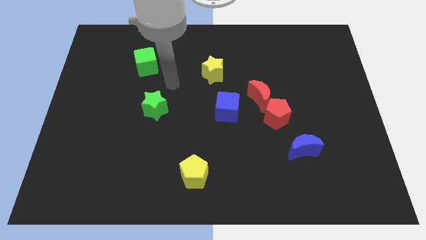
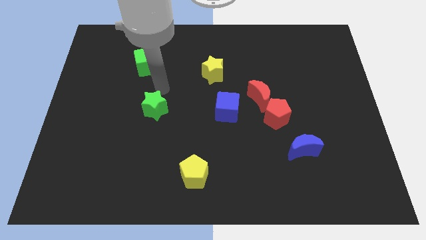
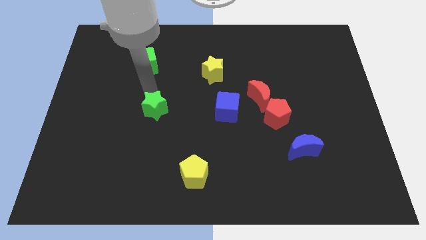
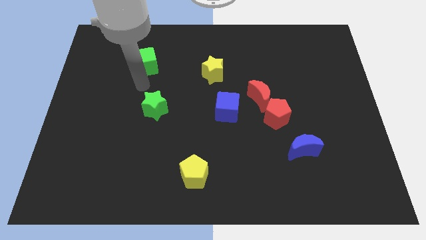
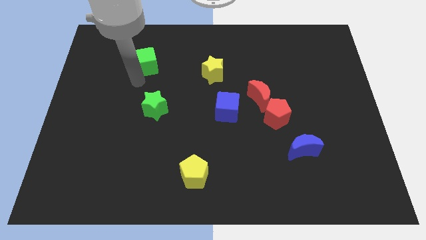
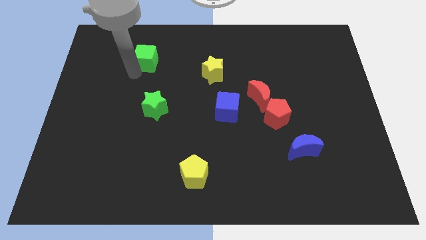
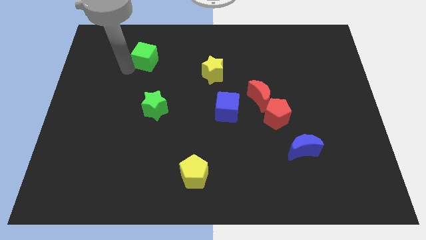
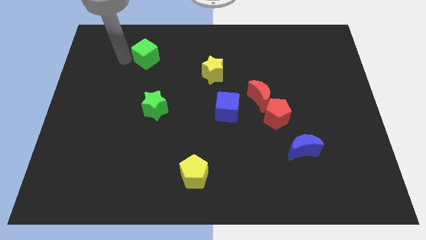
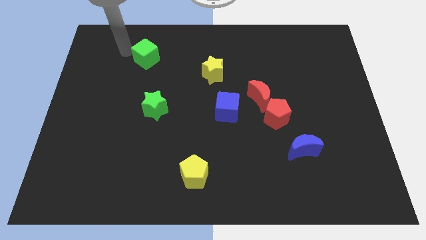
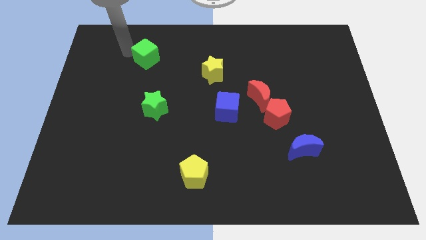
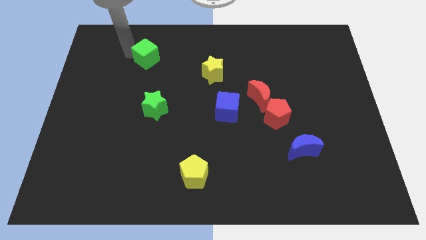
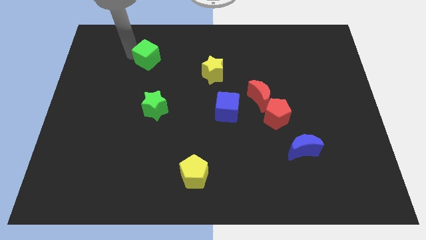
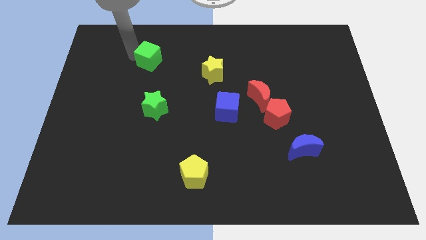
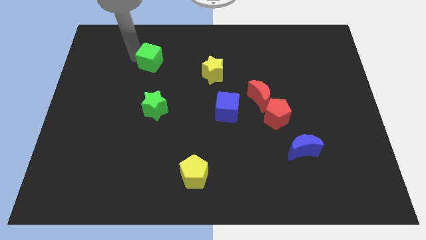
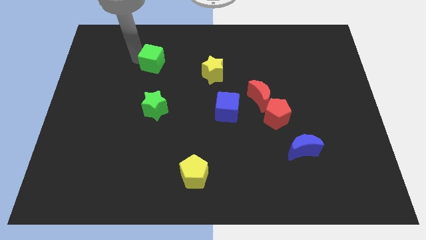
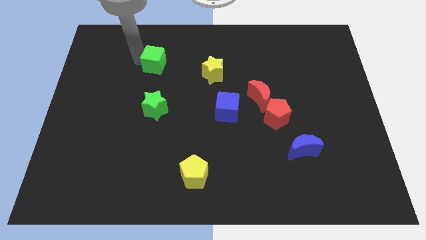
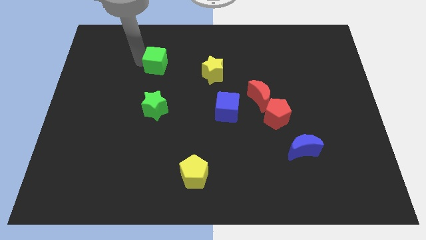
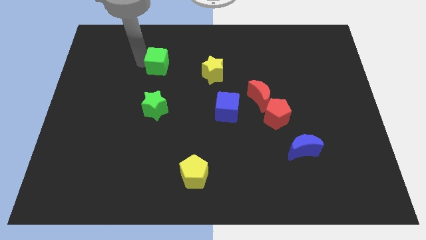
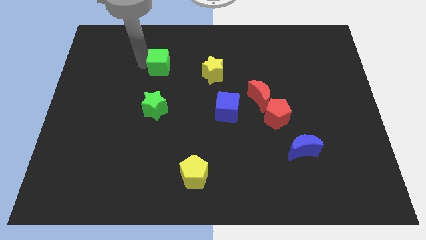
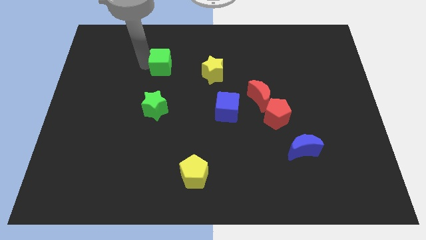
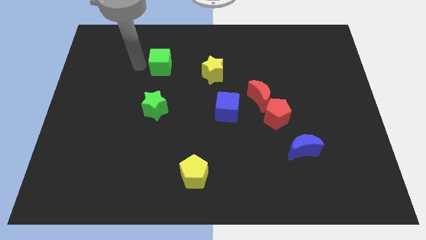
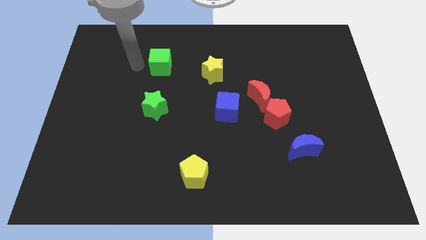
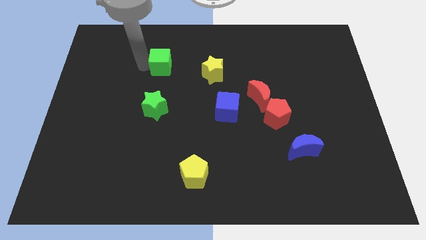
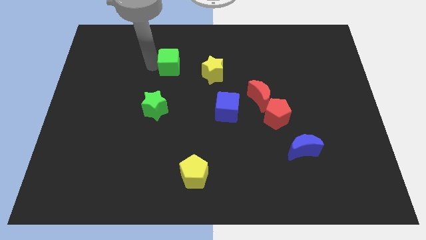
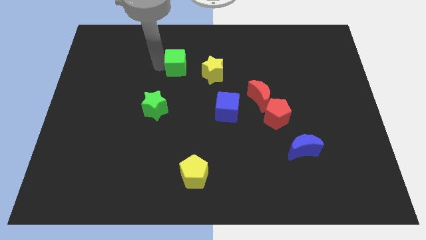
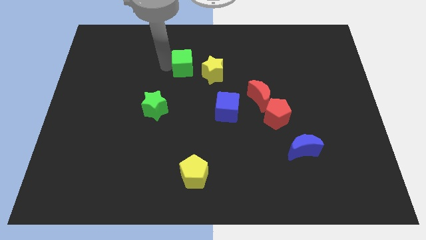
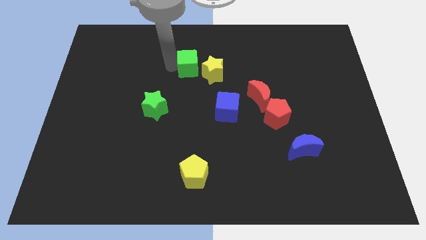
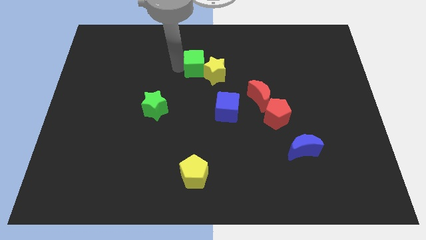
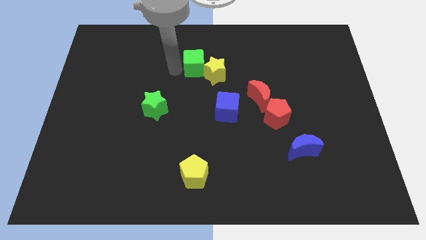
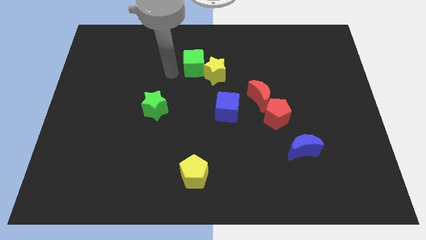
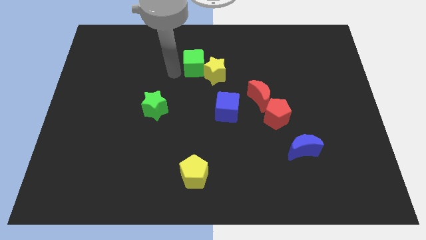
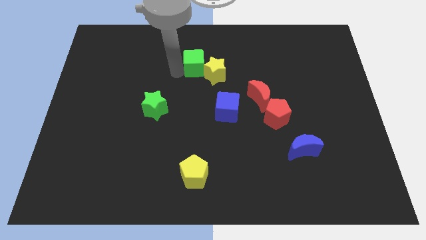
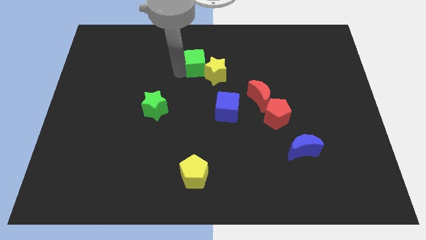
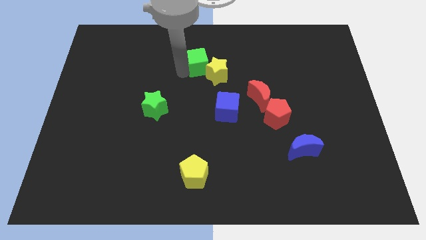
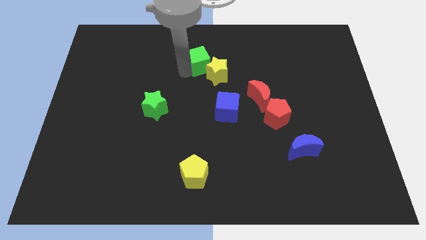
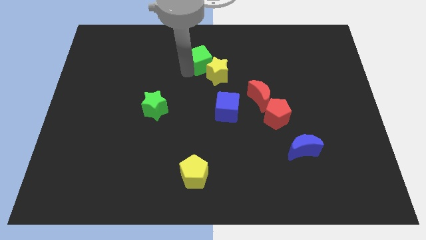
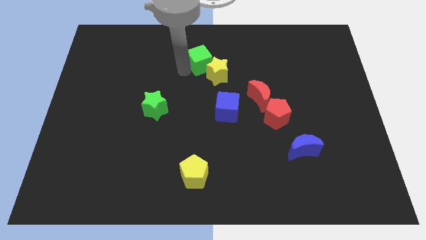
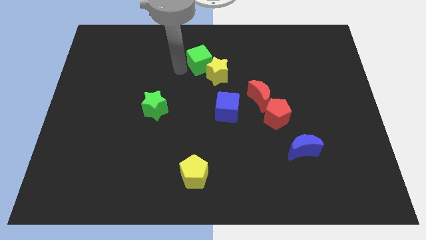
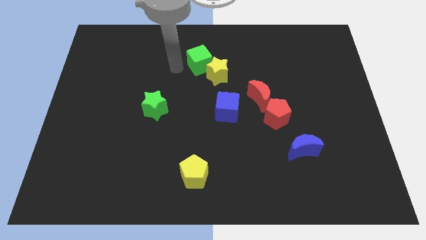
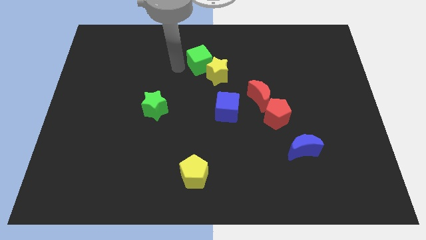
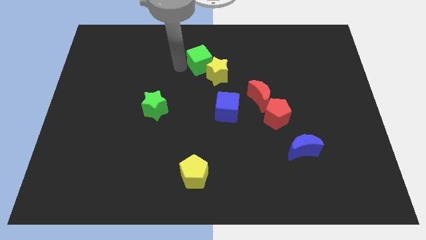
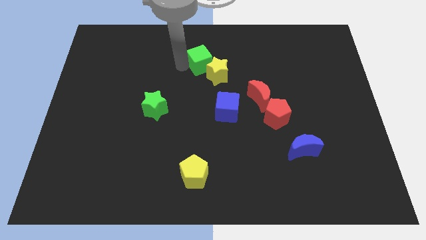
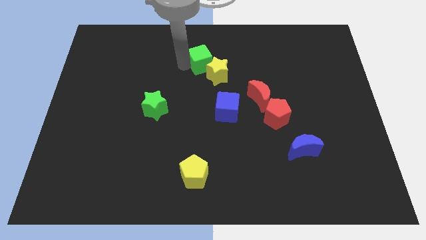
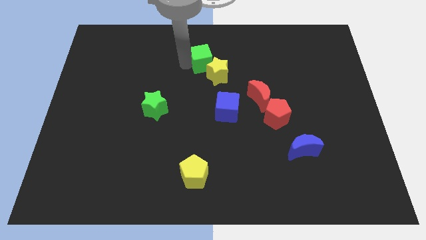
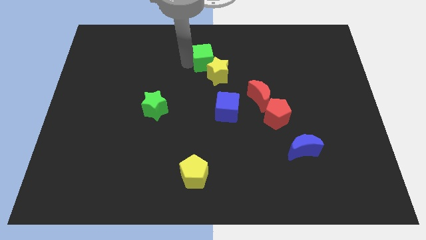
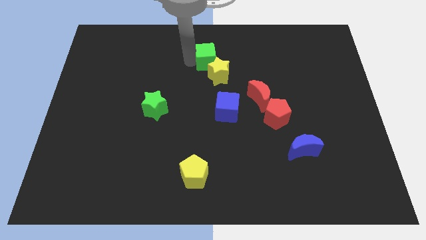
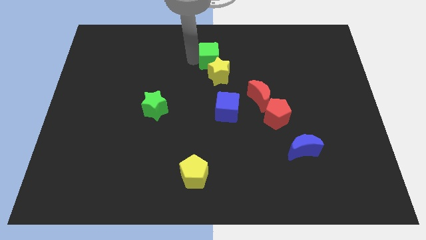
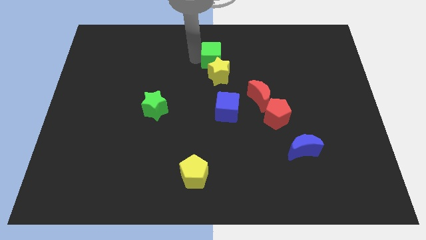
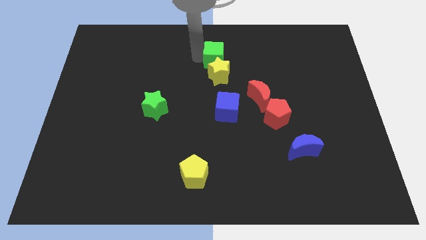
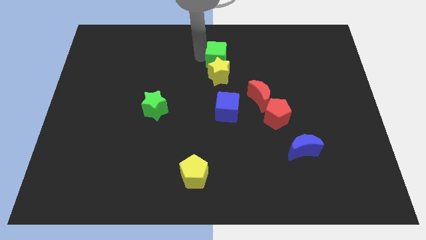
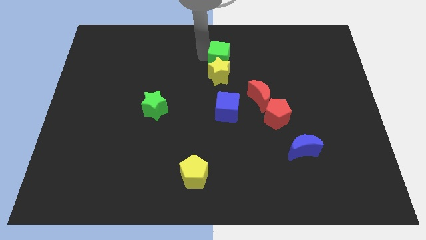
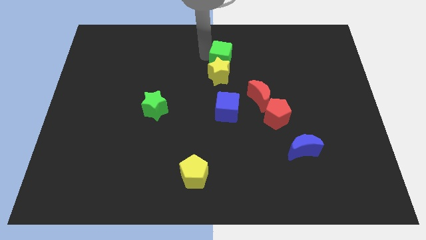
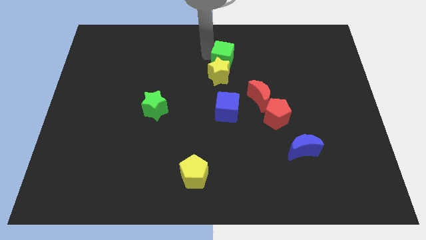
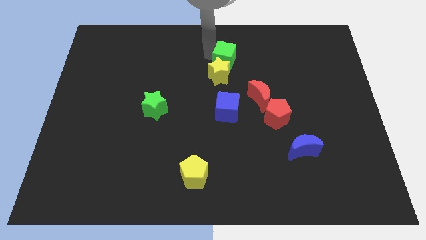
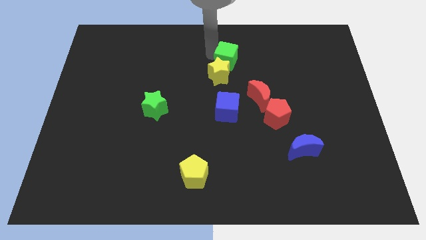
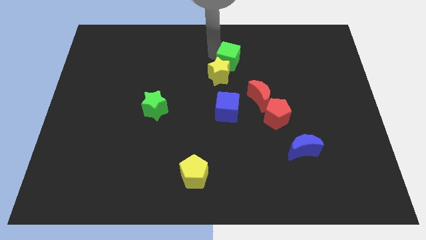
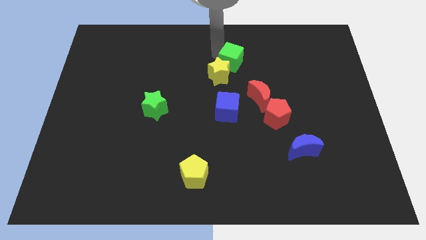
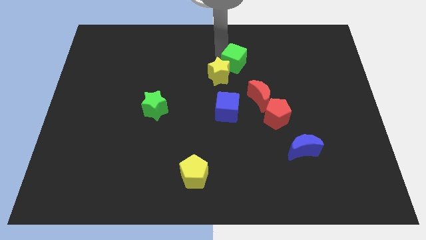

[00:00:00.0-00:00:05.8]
move the green cube right of the yellow star

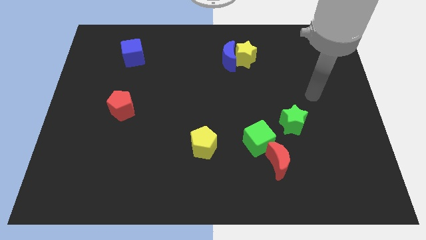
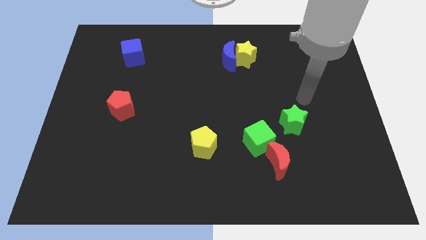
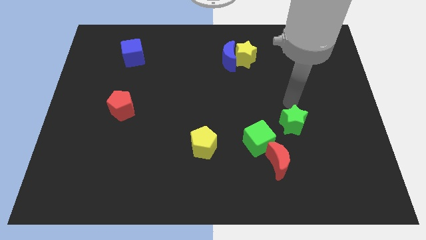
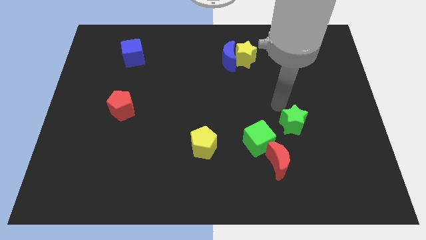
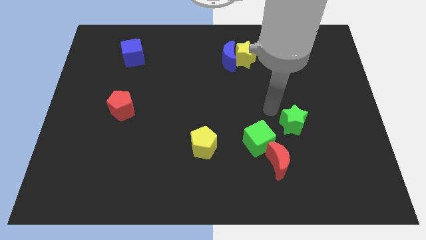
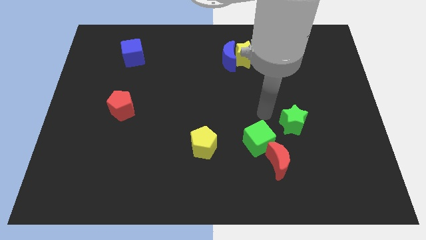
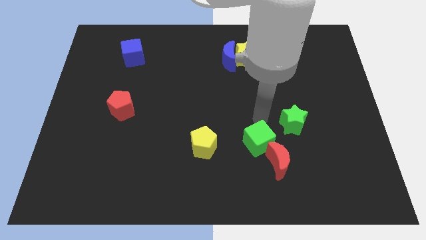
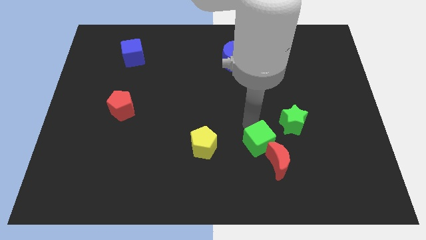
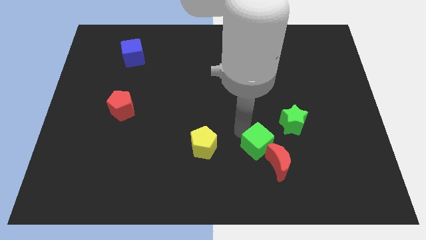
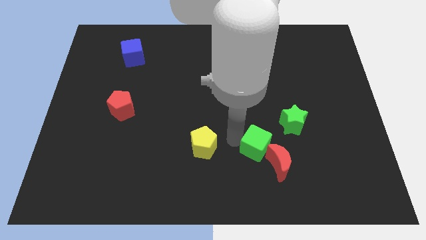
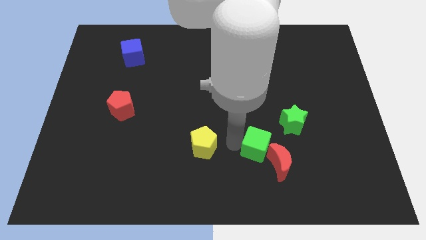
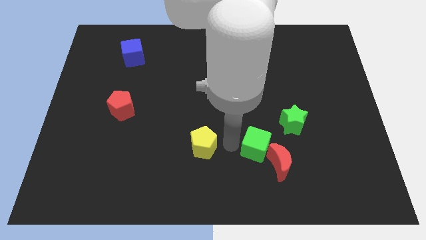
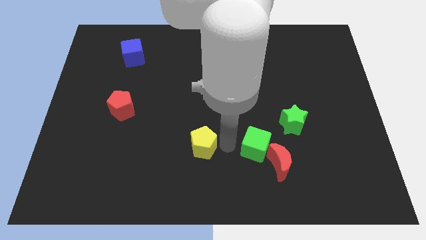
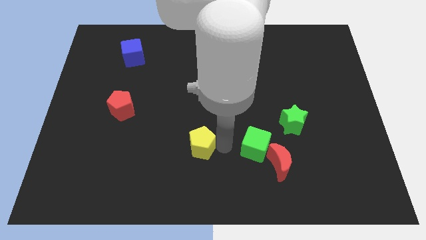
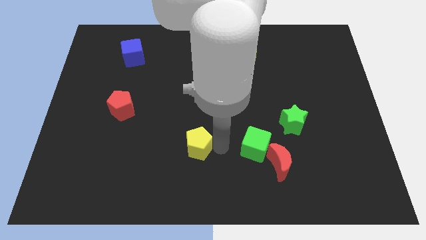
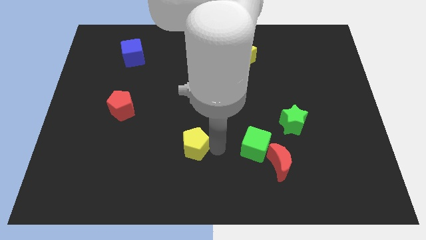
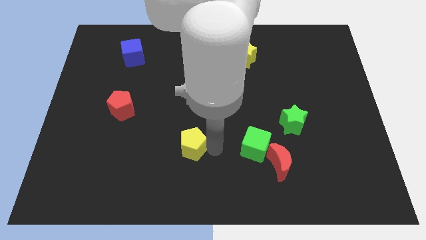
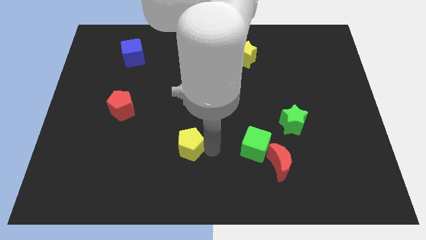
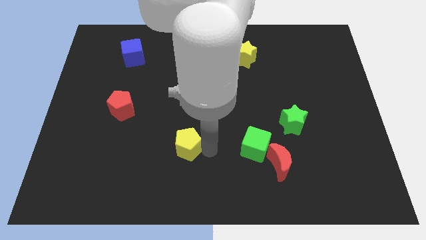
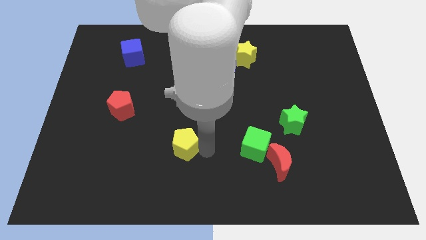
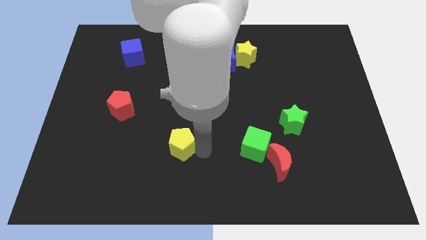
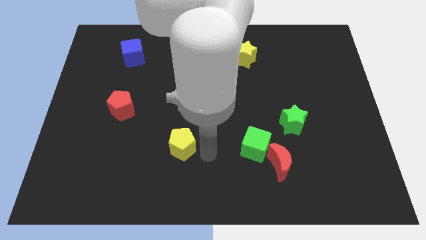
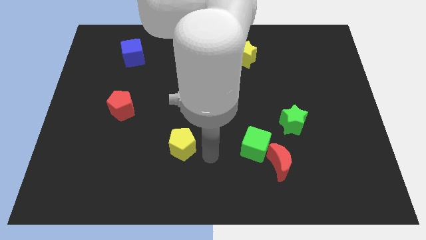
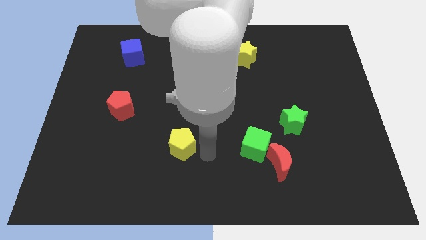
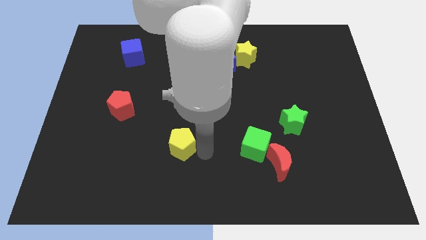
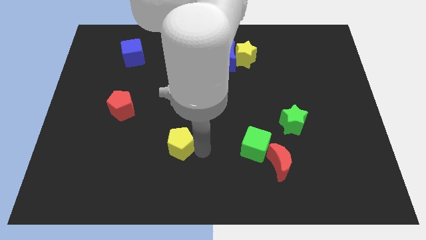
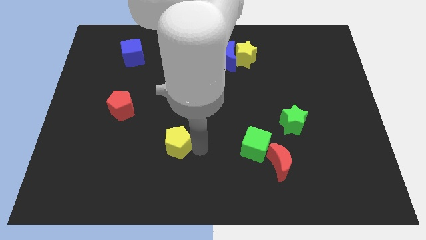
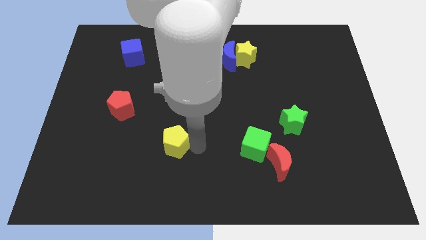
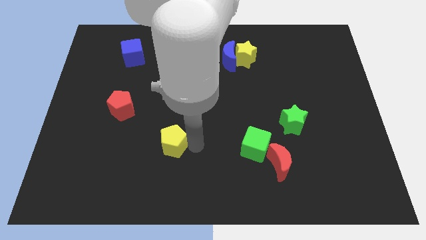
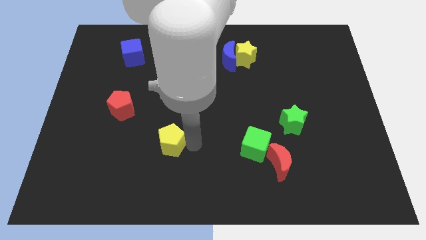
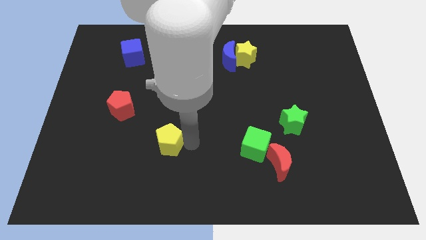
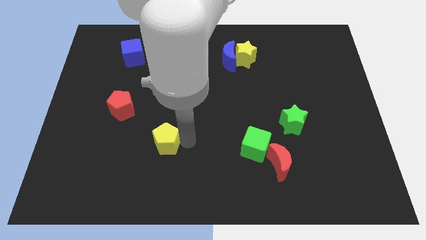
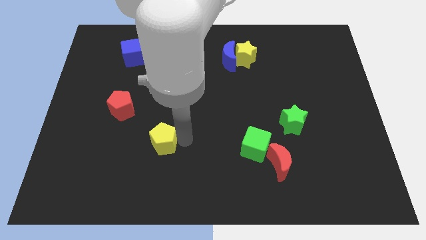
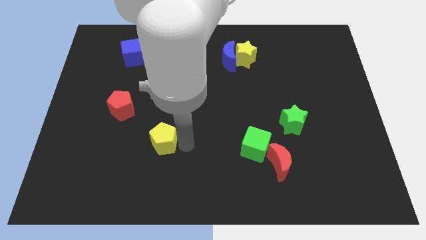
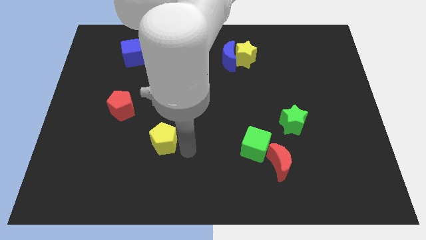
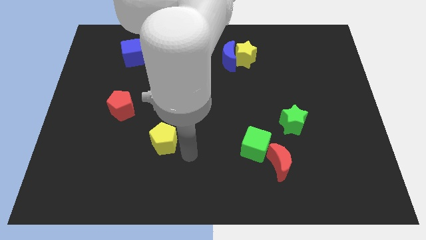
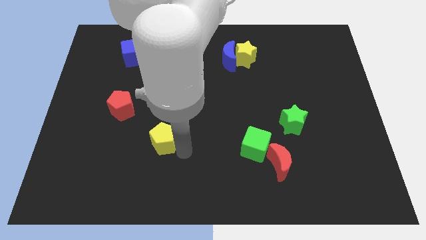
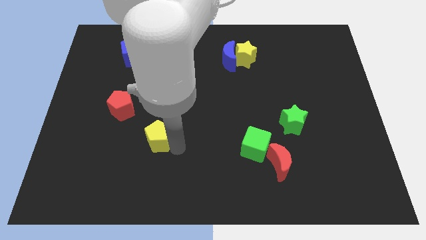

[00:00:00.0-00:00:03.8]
push the yellow pentagon diagonally down and to the right of the red pentagon
